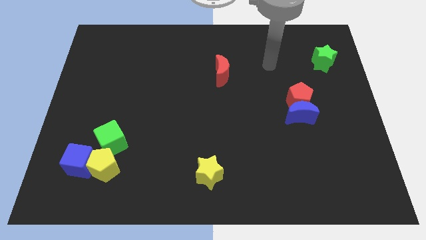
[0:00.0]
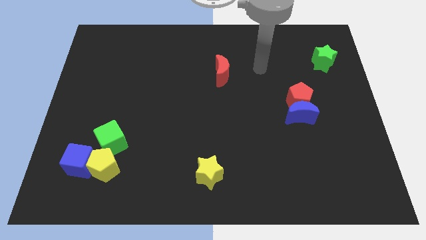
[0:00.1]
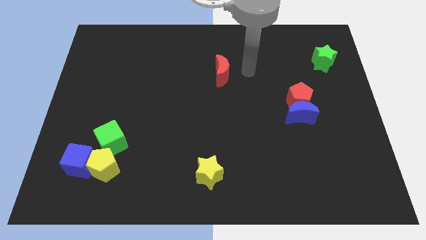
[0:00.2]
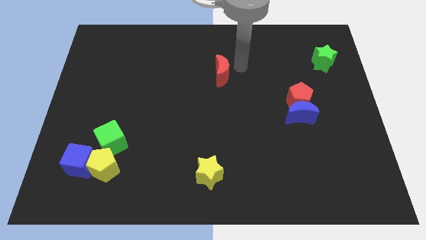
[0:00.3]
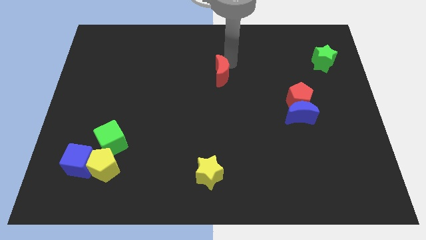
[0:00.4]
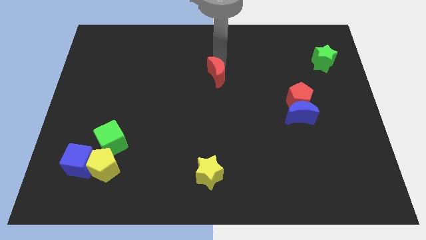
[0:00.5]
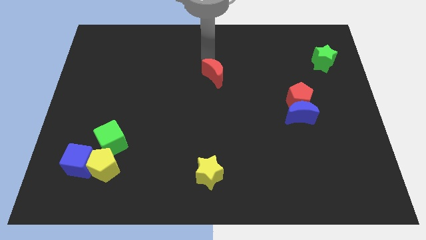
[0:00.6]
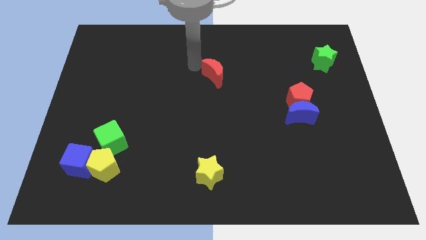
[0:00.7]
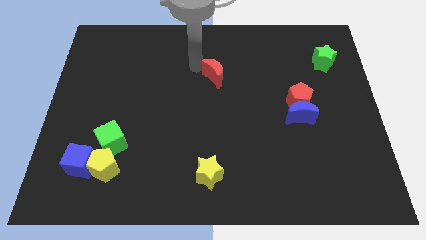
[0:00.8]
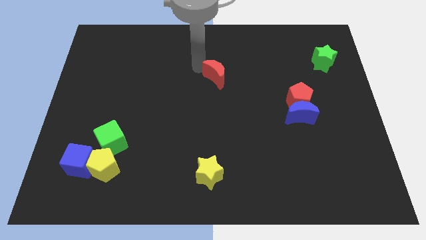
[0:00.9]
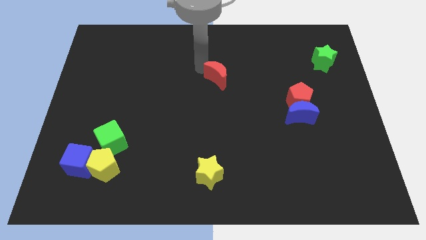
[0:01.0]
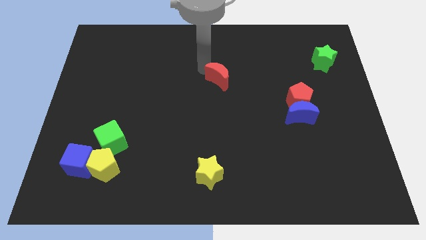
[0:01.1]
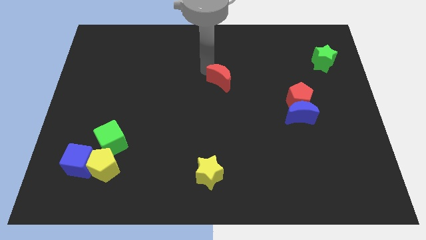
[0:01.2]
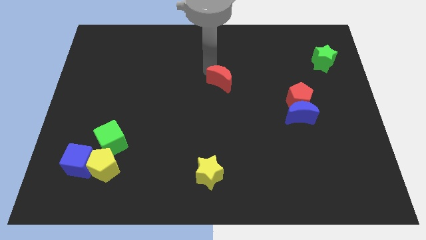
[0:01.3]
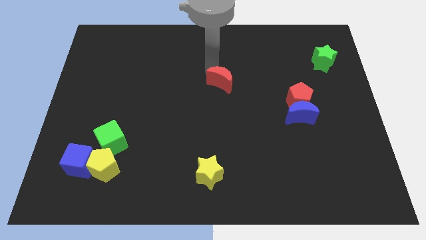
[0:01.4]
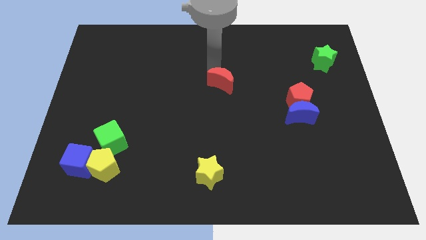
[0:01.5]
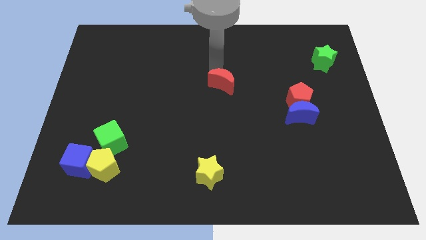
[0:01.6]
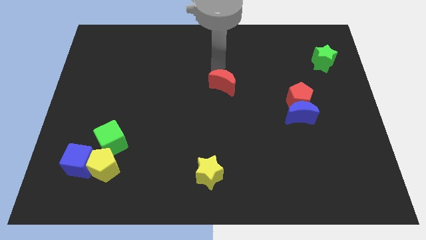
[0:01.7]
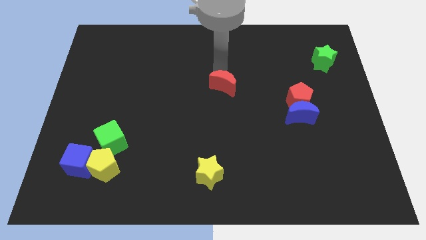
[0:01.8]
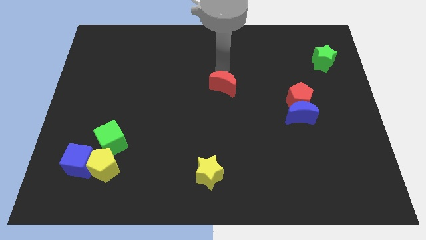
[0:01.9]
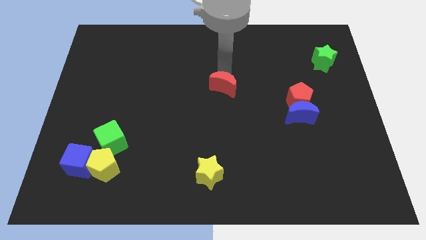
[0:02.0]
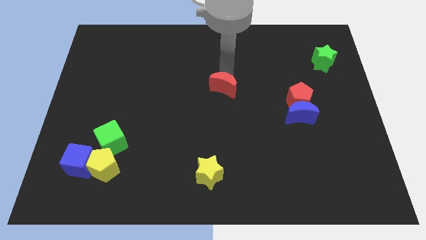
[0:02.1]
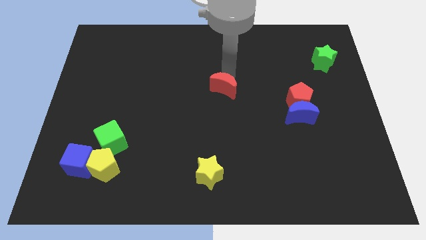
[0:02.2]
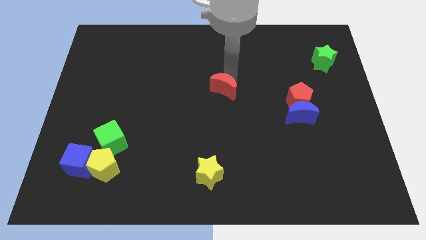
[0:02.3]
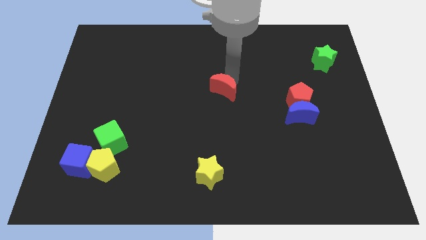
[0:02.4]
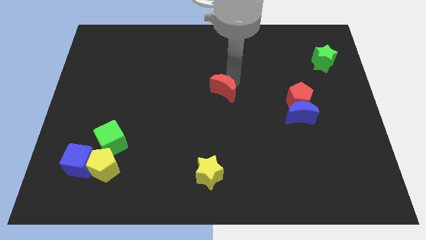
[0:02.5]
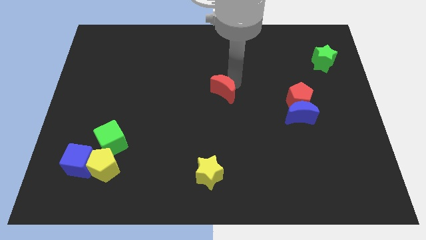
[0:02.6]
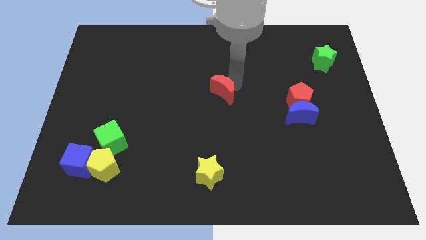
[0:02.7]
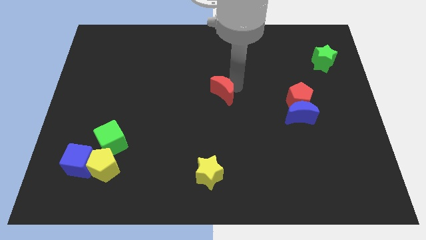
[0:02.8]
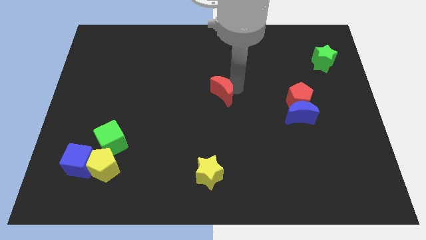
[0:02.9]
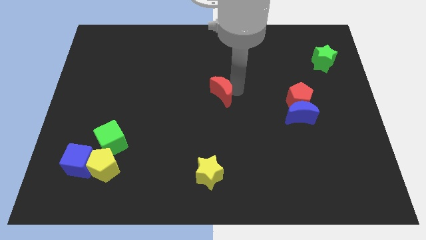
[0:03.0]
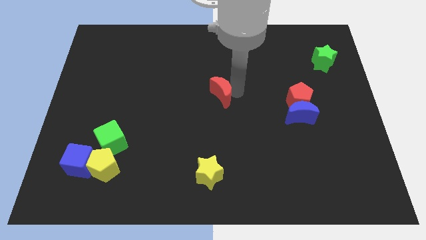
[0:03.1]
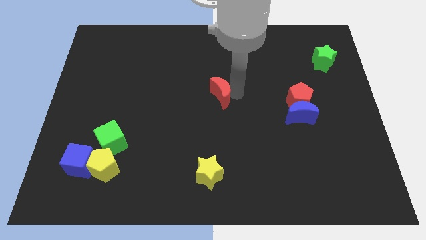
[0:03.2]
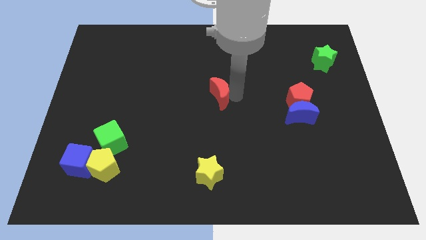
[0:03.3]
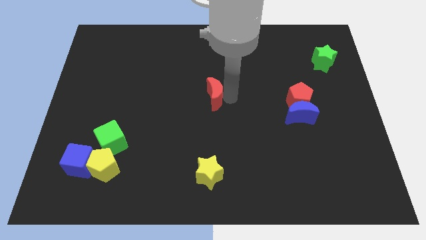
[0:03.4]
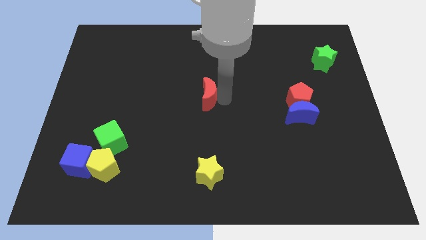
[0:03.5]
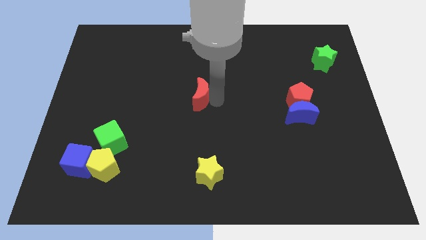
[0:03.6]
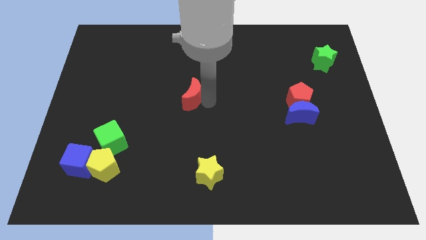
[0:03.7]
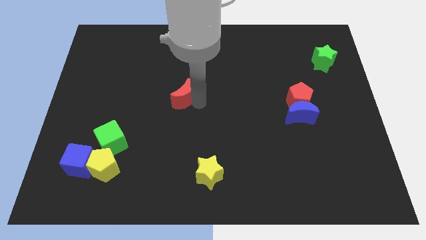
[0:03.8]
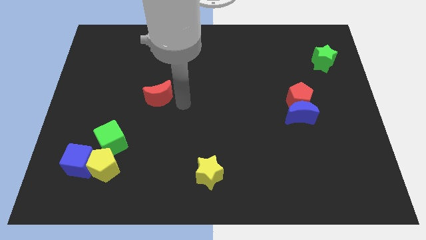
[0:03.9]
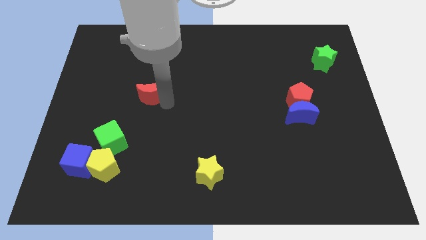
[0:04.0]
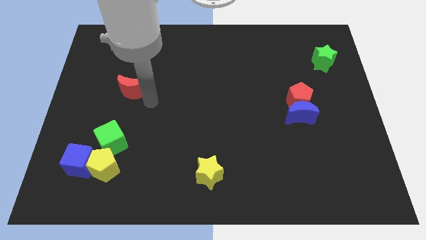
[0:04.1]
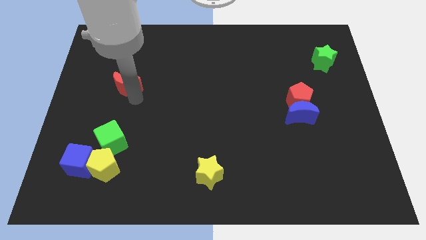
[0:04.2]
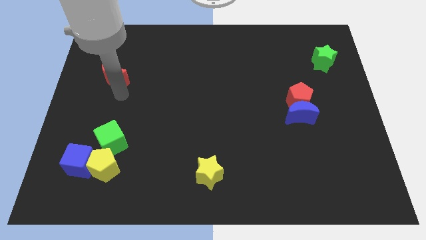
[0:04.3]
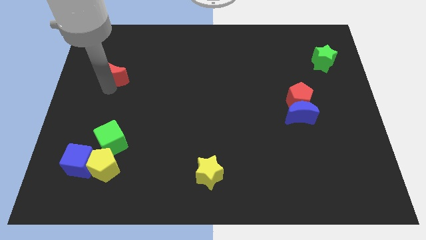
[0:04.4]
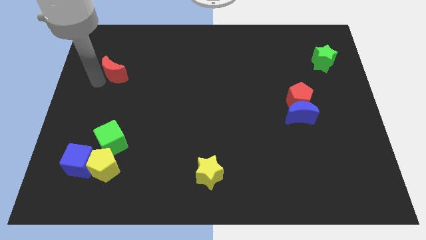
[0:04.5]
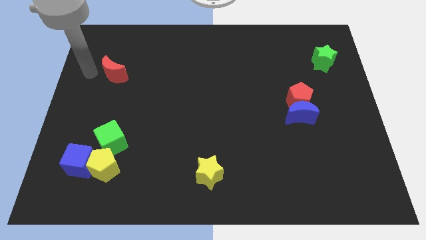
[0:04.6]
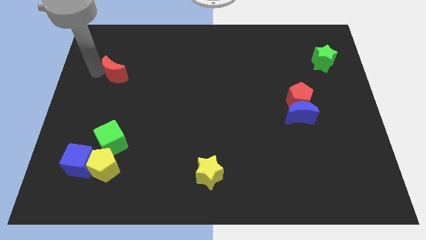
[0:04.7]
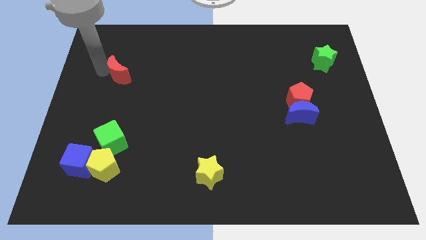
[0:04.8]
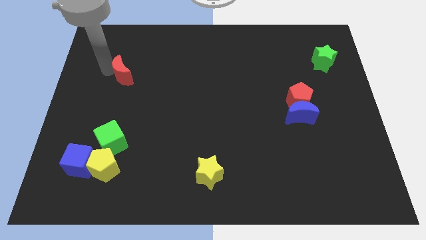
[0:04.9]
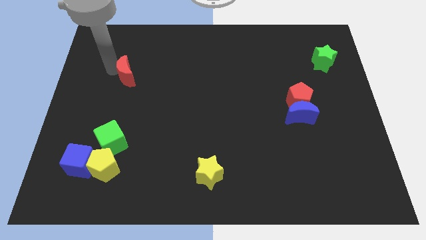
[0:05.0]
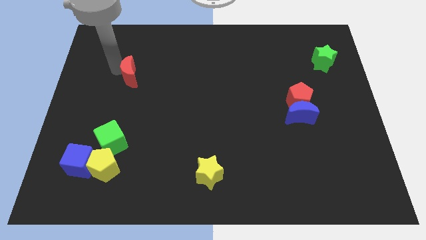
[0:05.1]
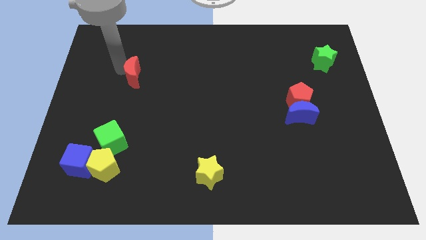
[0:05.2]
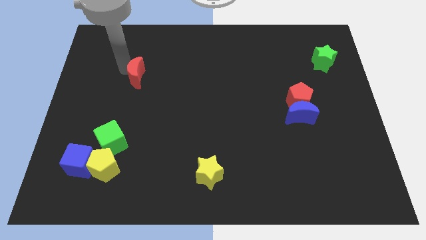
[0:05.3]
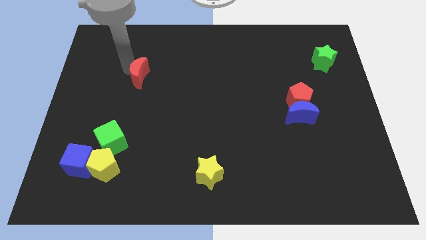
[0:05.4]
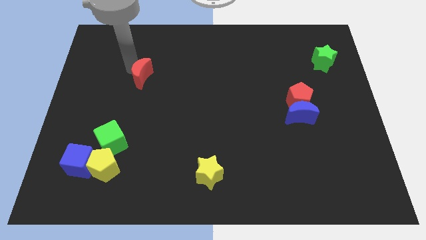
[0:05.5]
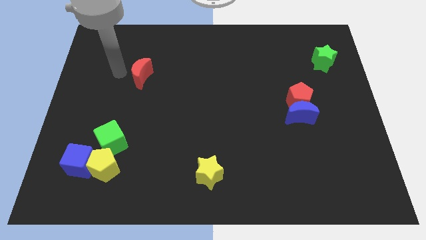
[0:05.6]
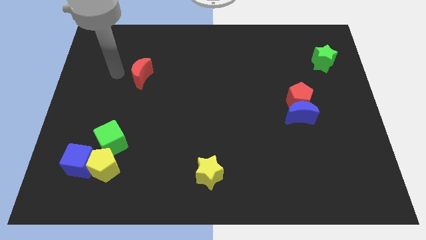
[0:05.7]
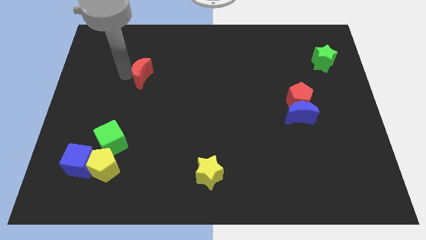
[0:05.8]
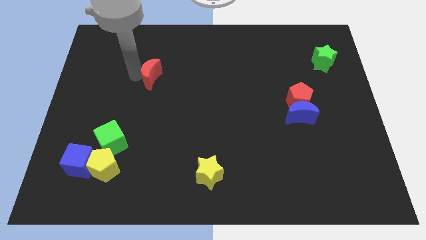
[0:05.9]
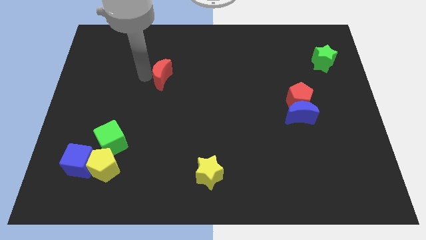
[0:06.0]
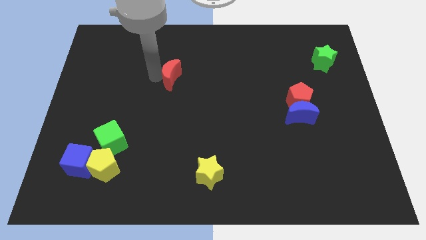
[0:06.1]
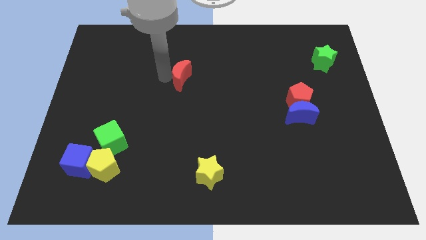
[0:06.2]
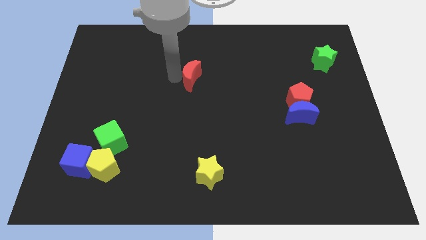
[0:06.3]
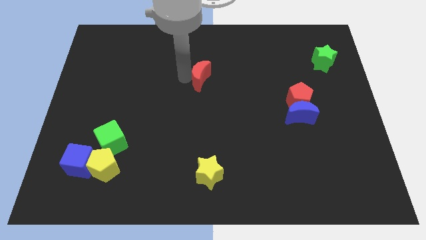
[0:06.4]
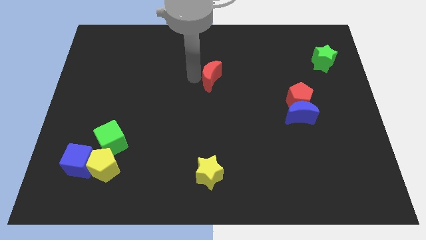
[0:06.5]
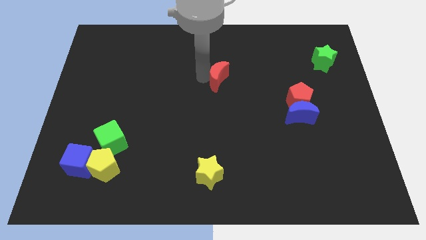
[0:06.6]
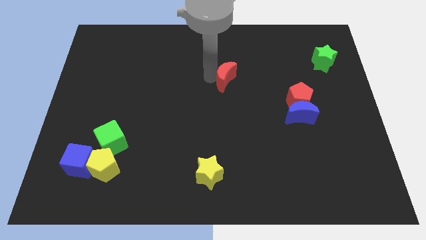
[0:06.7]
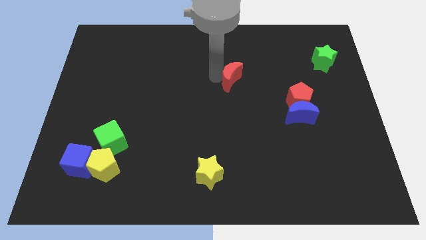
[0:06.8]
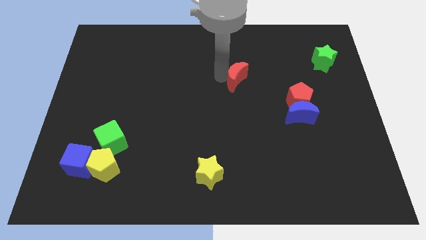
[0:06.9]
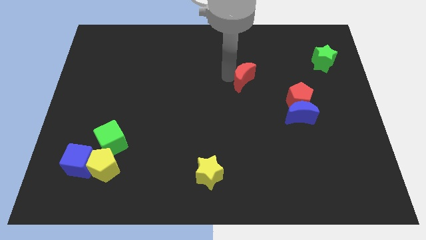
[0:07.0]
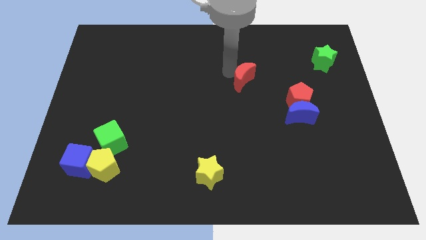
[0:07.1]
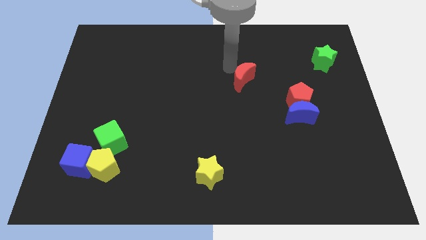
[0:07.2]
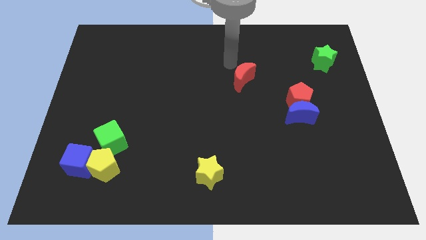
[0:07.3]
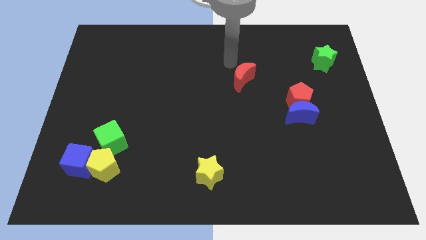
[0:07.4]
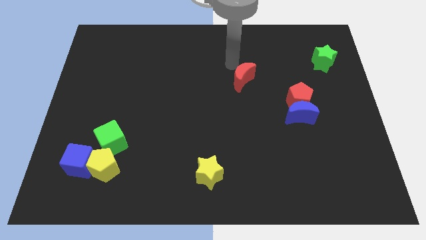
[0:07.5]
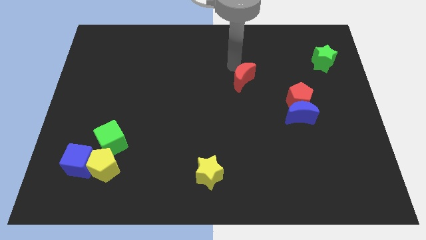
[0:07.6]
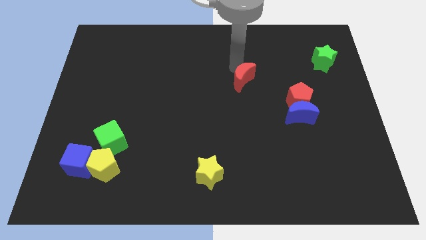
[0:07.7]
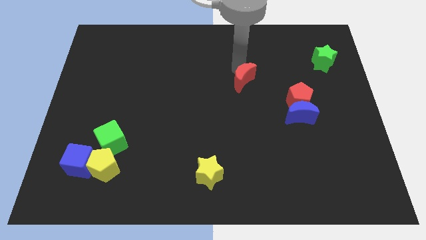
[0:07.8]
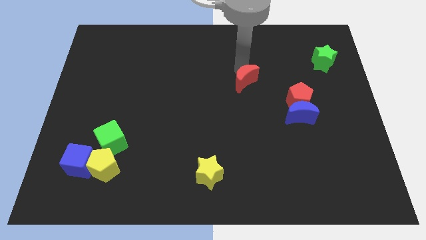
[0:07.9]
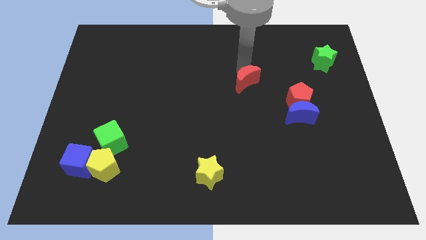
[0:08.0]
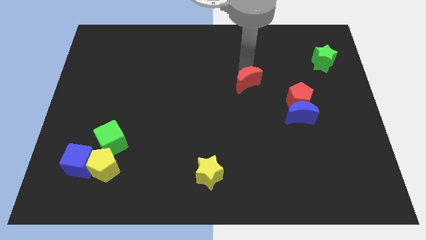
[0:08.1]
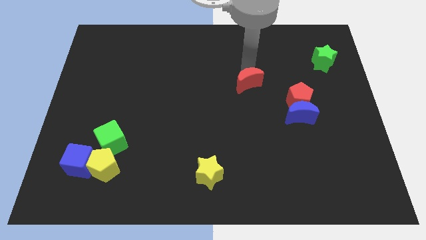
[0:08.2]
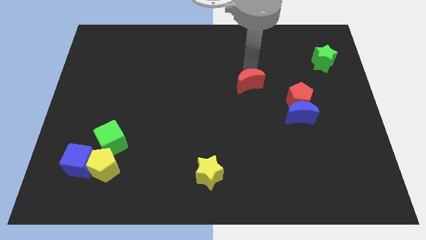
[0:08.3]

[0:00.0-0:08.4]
slightly move the red moon downwards and then right
